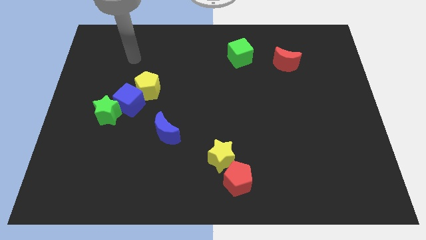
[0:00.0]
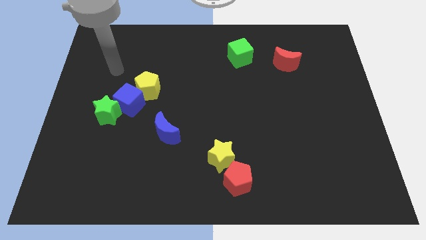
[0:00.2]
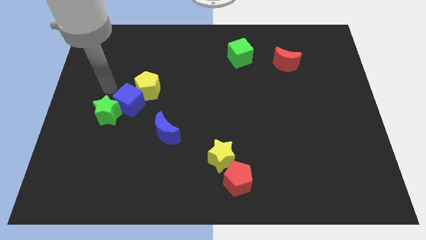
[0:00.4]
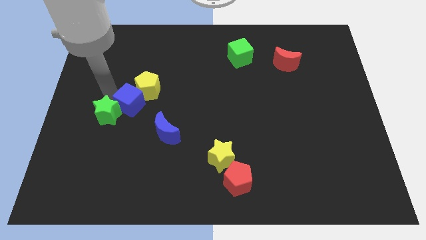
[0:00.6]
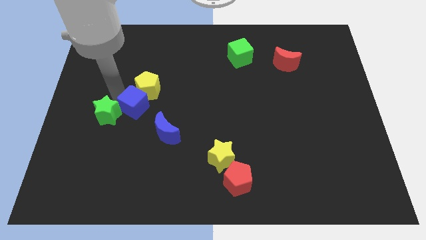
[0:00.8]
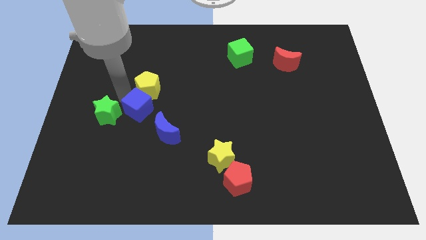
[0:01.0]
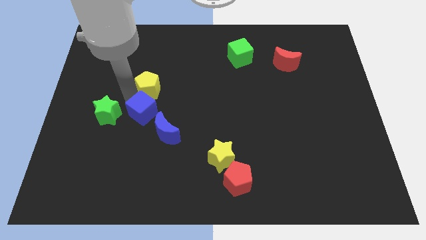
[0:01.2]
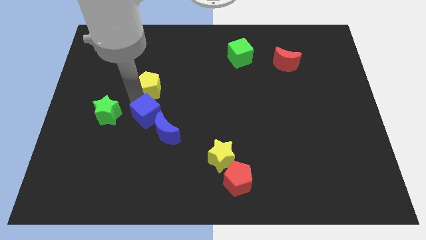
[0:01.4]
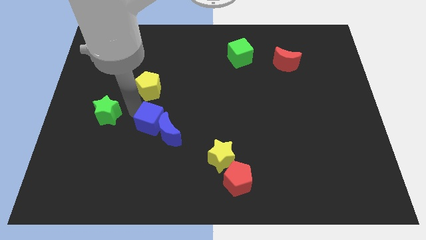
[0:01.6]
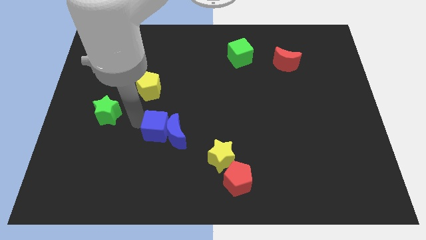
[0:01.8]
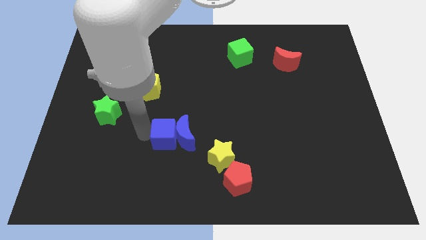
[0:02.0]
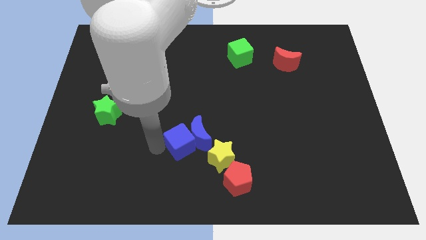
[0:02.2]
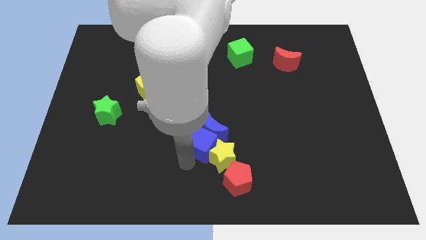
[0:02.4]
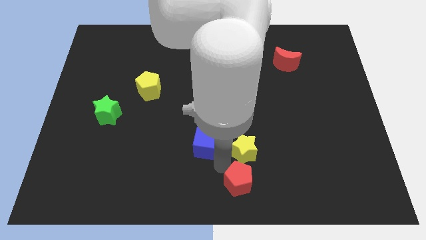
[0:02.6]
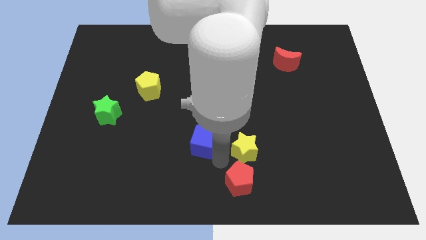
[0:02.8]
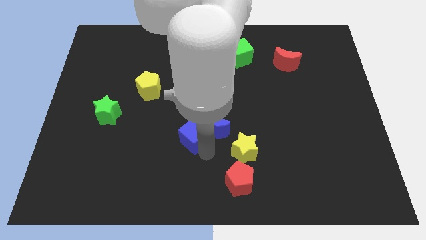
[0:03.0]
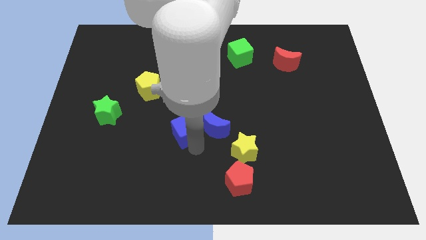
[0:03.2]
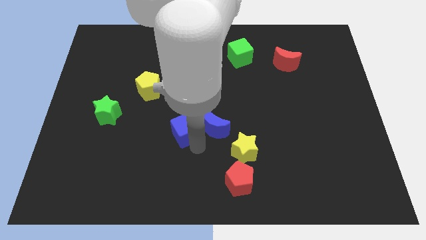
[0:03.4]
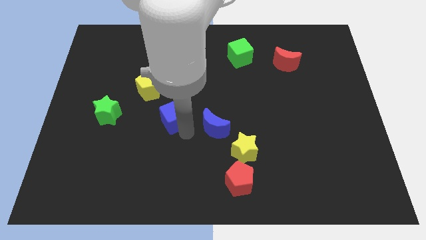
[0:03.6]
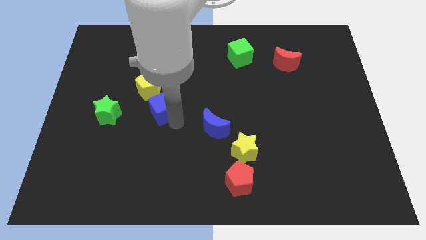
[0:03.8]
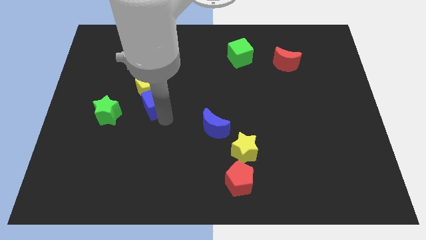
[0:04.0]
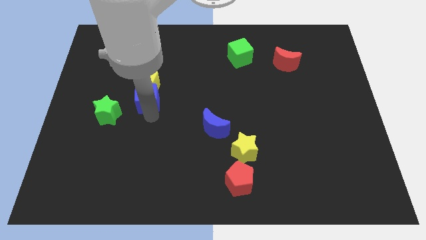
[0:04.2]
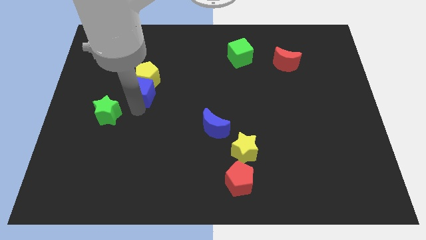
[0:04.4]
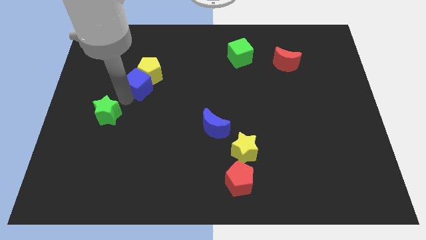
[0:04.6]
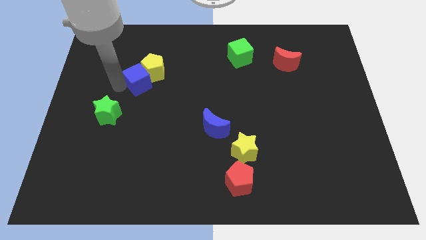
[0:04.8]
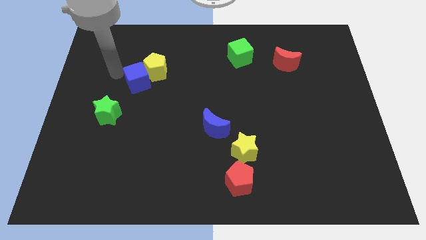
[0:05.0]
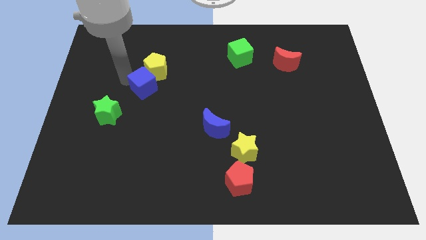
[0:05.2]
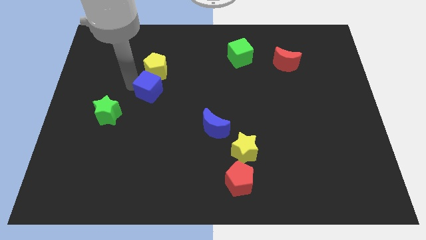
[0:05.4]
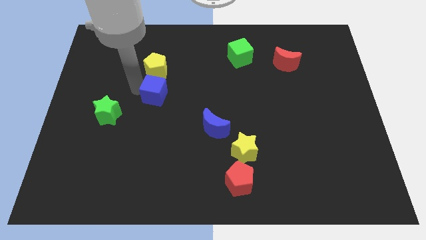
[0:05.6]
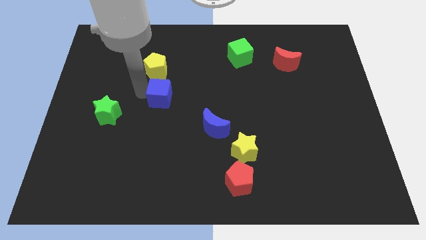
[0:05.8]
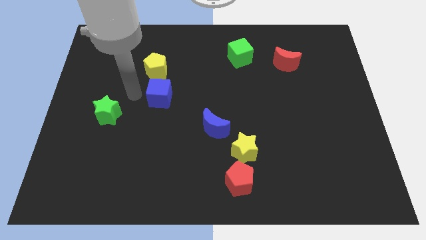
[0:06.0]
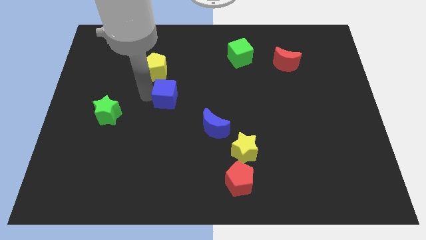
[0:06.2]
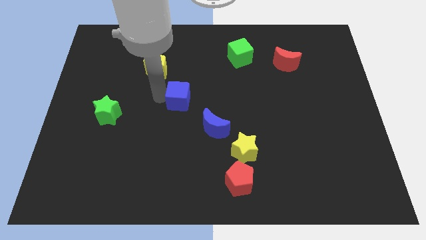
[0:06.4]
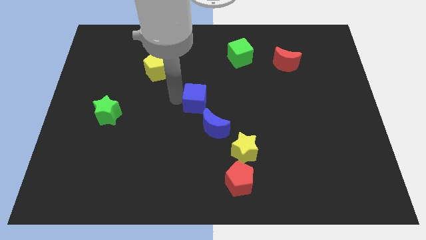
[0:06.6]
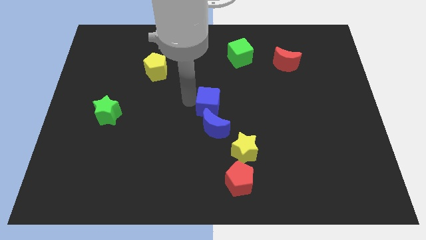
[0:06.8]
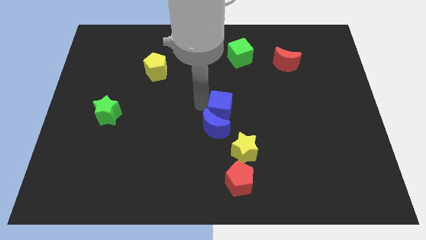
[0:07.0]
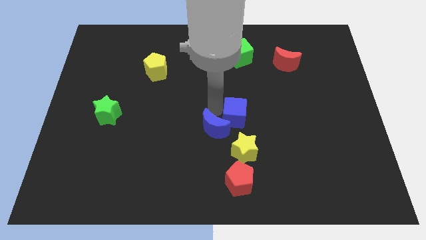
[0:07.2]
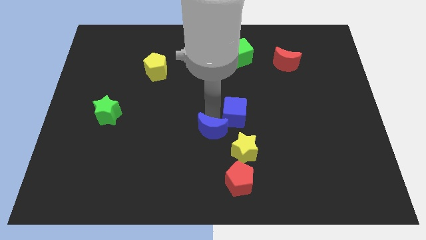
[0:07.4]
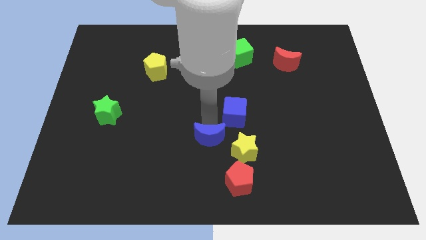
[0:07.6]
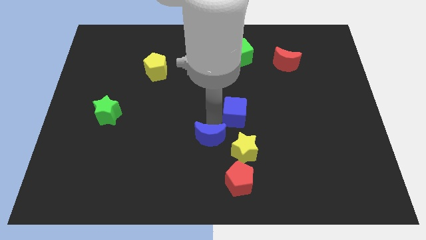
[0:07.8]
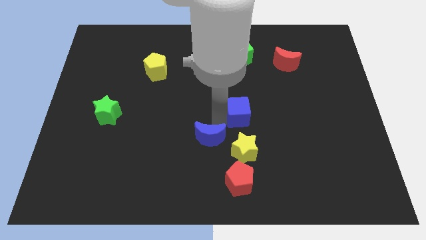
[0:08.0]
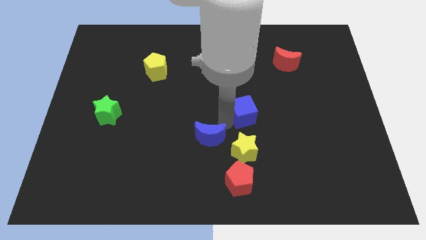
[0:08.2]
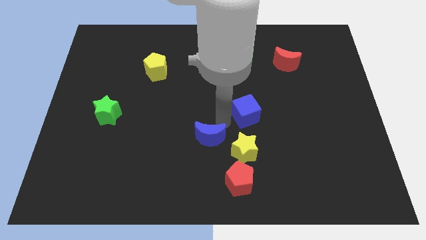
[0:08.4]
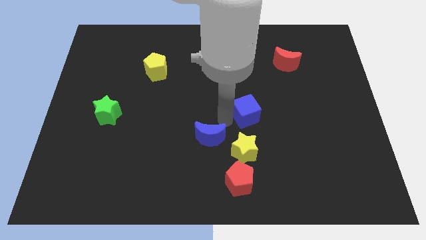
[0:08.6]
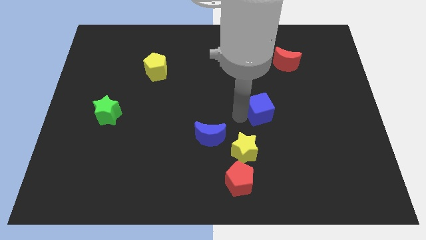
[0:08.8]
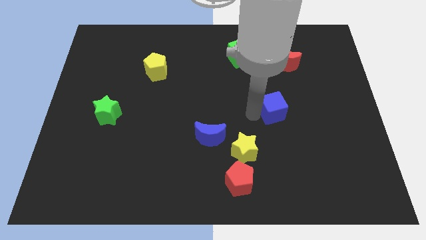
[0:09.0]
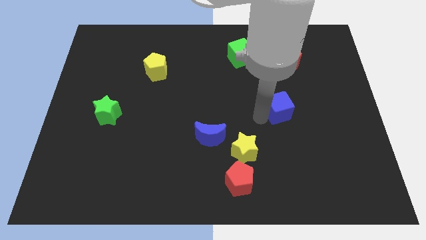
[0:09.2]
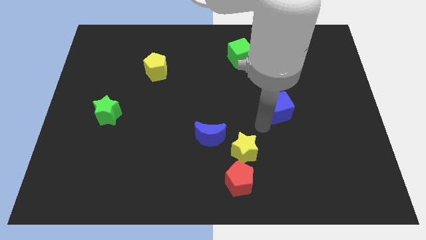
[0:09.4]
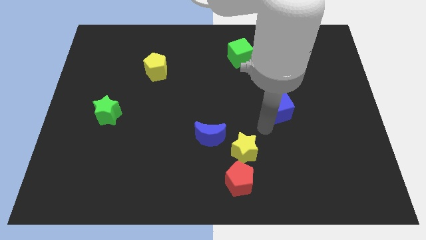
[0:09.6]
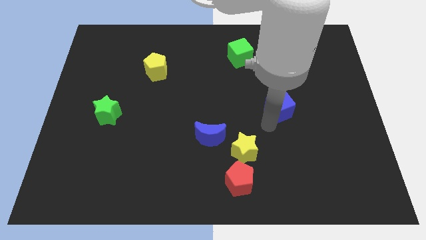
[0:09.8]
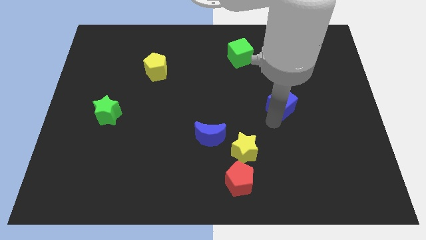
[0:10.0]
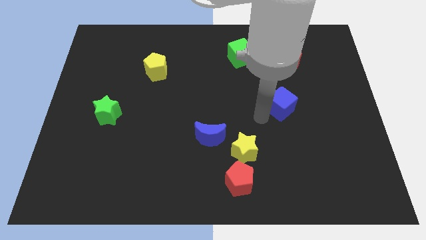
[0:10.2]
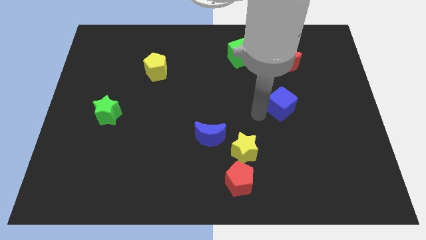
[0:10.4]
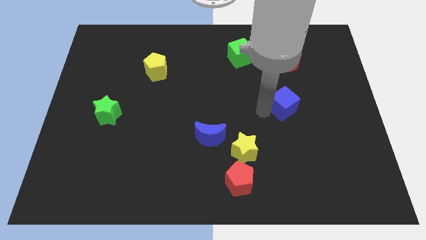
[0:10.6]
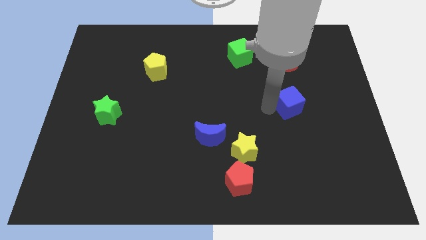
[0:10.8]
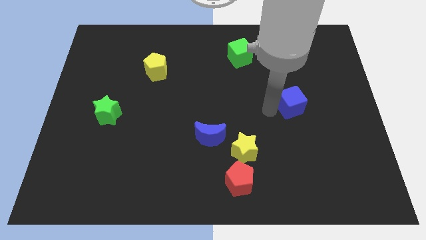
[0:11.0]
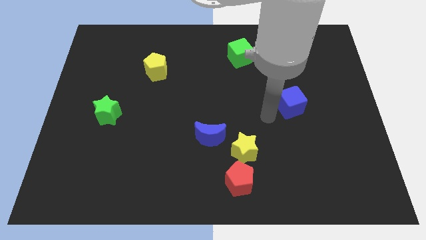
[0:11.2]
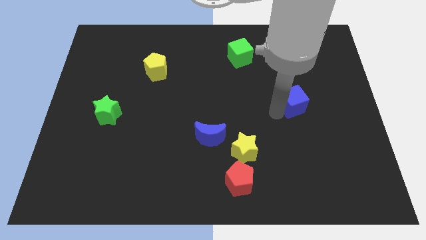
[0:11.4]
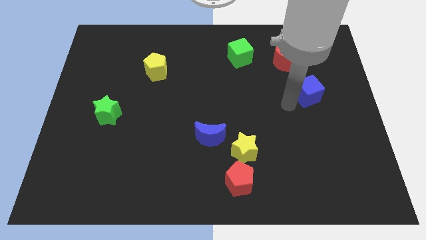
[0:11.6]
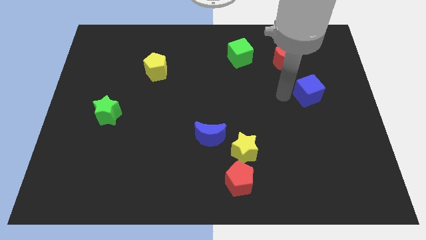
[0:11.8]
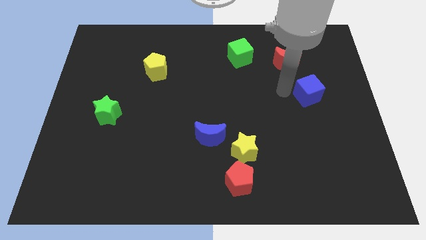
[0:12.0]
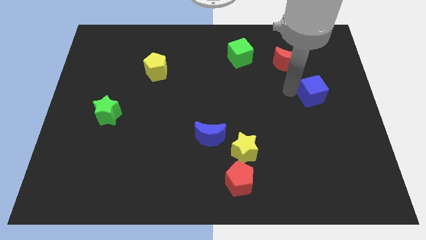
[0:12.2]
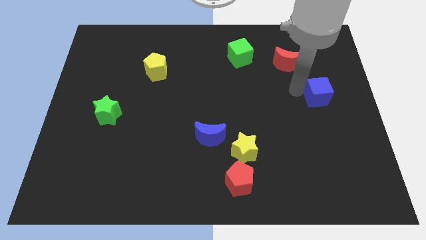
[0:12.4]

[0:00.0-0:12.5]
slide the blue cube to the center right

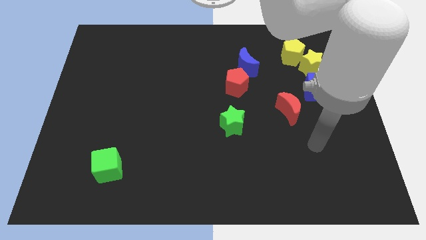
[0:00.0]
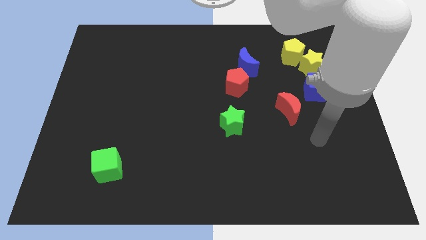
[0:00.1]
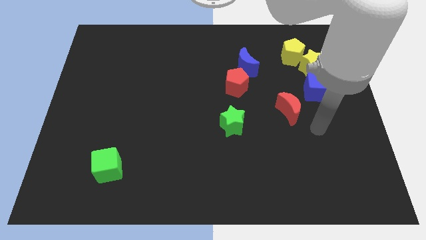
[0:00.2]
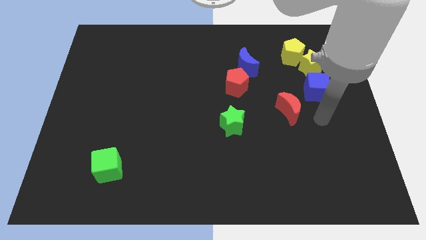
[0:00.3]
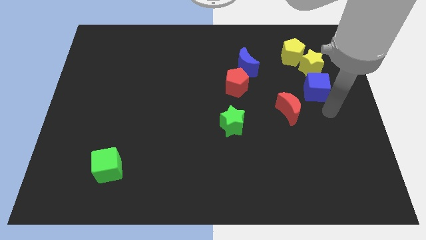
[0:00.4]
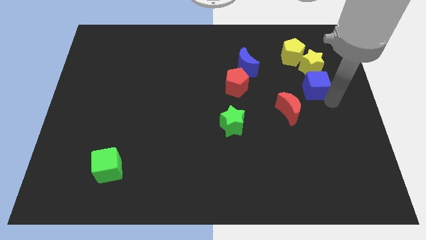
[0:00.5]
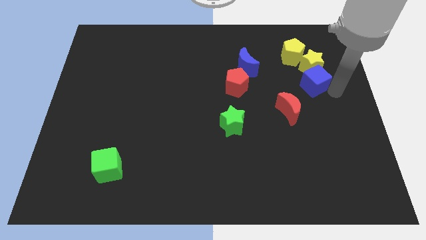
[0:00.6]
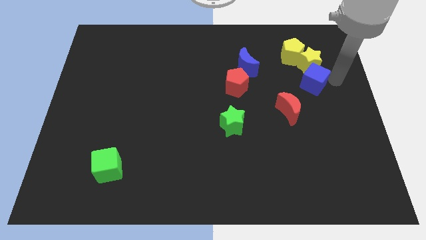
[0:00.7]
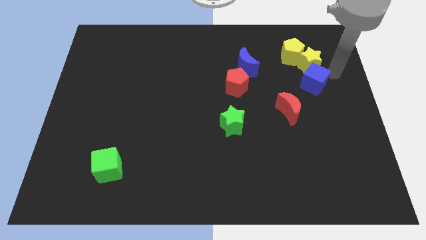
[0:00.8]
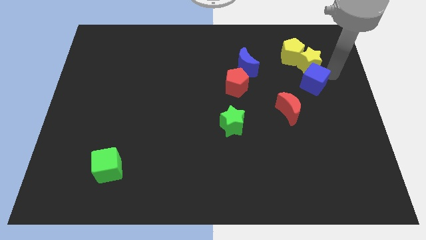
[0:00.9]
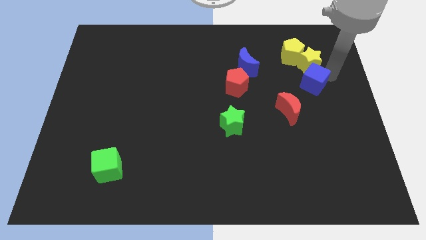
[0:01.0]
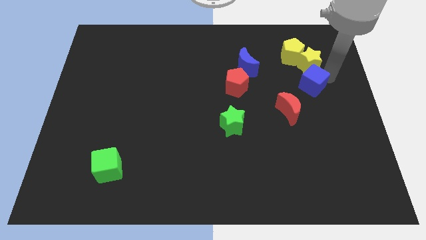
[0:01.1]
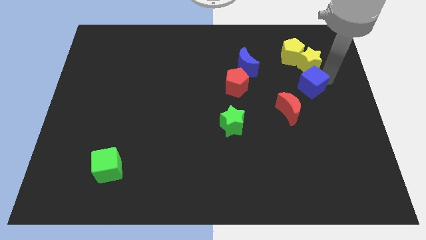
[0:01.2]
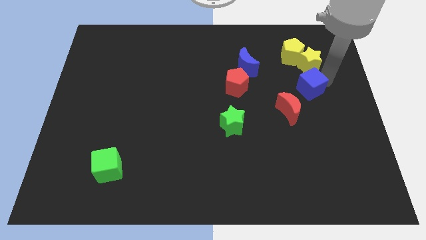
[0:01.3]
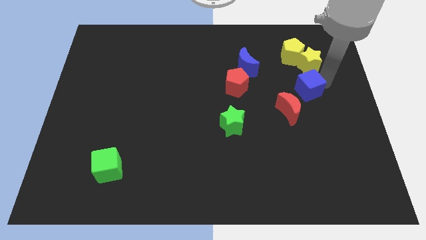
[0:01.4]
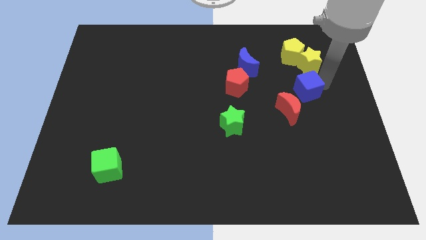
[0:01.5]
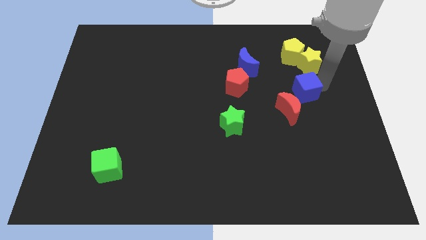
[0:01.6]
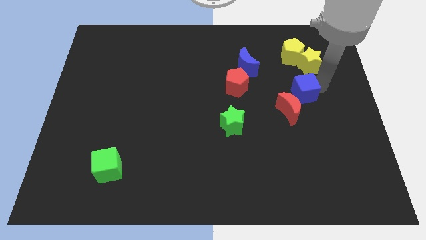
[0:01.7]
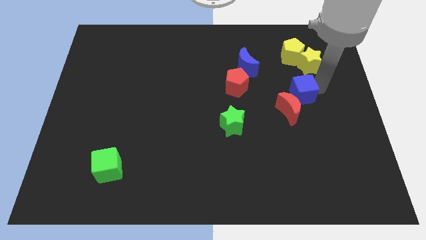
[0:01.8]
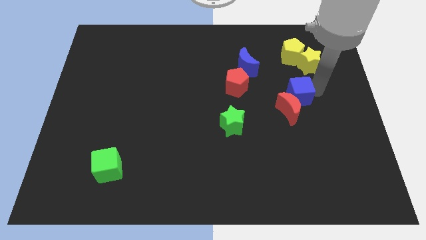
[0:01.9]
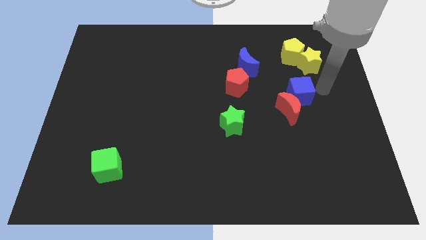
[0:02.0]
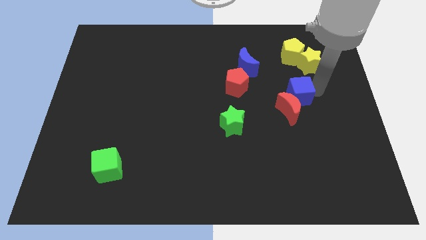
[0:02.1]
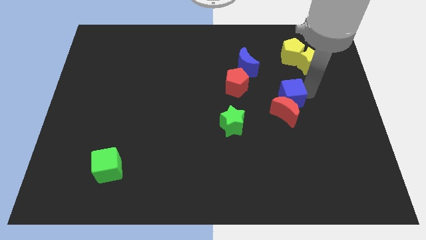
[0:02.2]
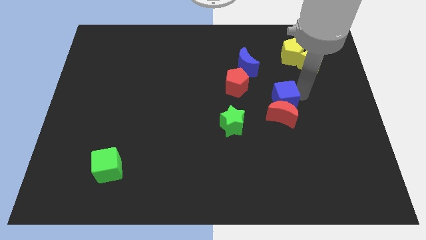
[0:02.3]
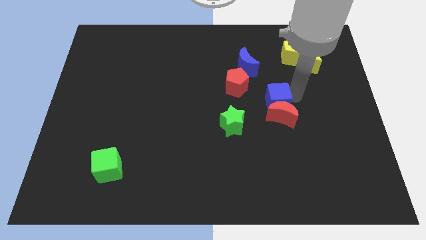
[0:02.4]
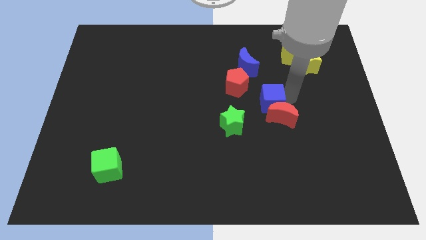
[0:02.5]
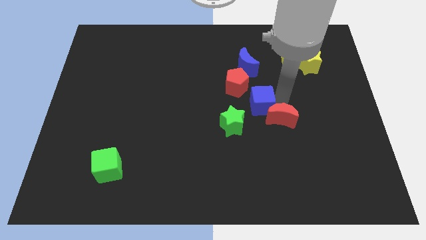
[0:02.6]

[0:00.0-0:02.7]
move the blue cube to the middle
